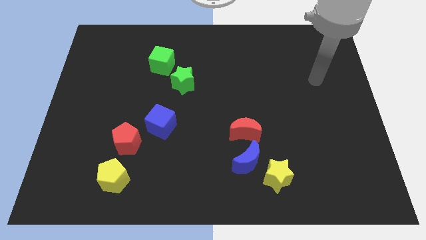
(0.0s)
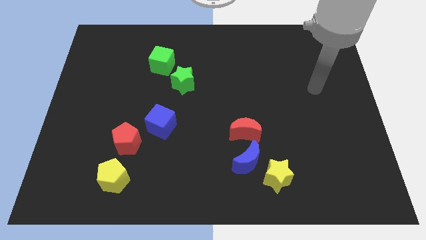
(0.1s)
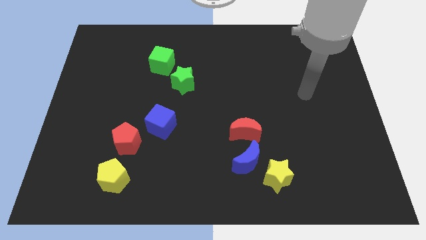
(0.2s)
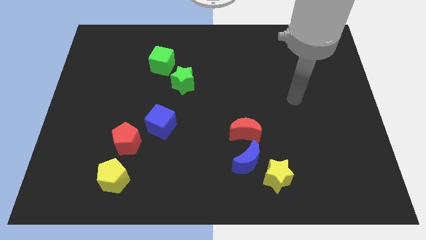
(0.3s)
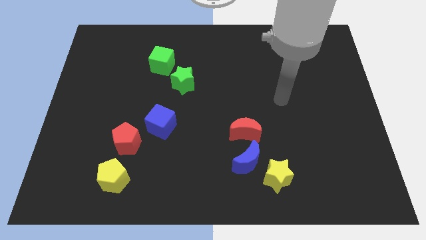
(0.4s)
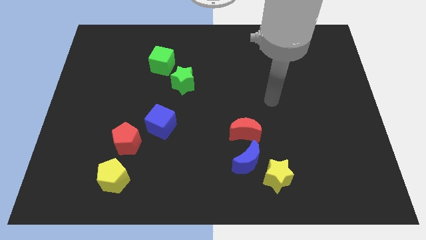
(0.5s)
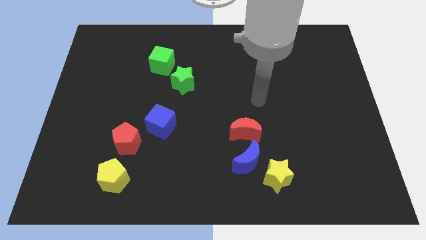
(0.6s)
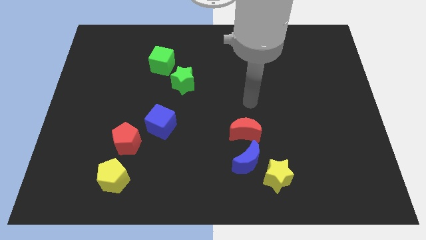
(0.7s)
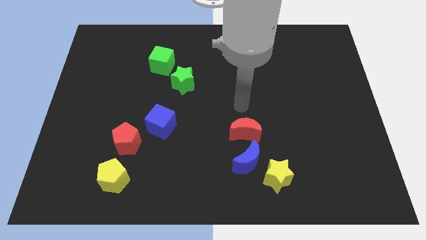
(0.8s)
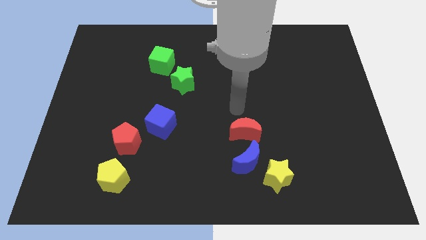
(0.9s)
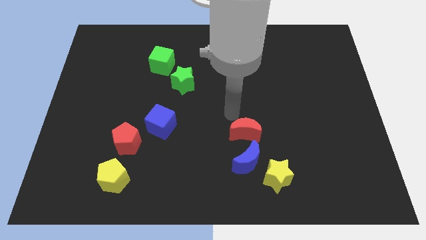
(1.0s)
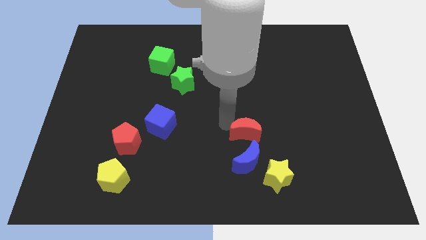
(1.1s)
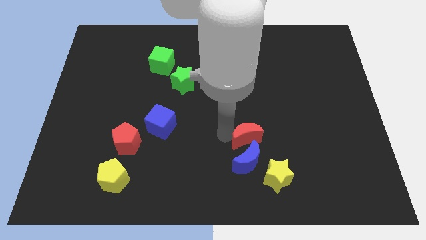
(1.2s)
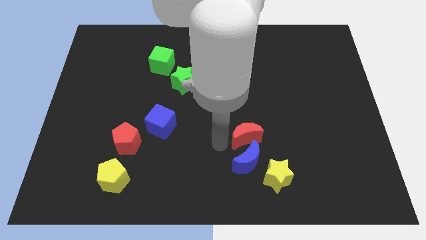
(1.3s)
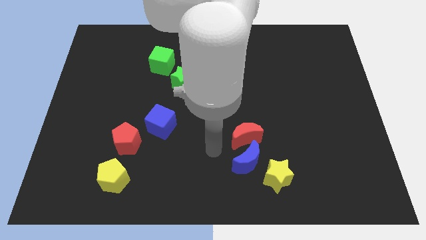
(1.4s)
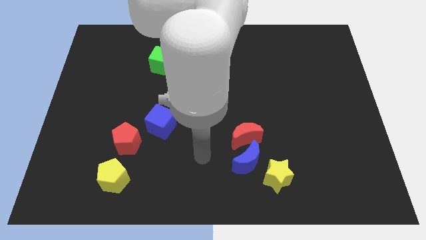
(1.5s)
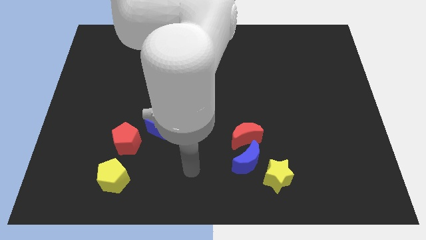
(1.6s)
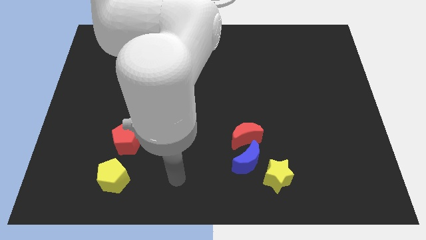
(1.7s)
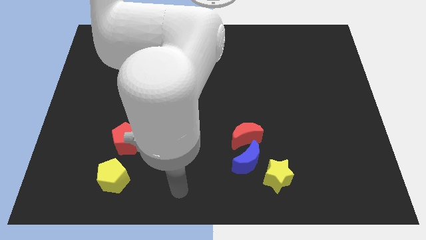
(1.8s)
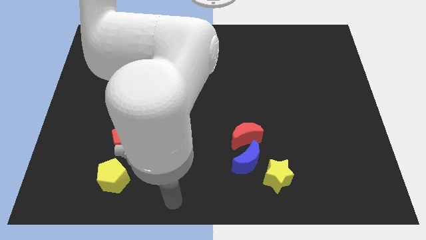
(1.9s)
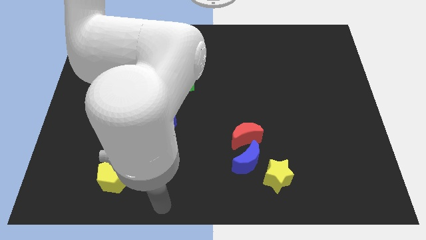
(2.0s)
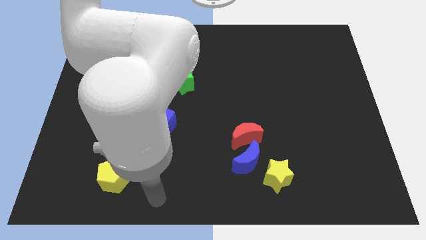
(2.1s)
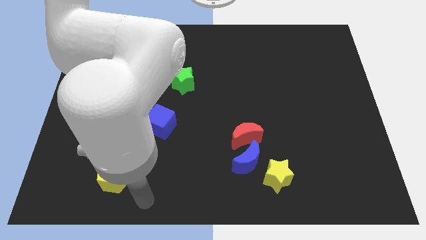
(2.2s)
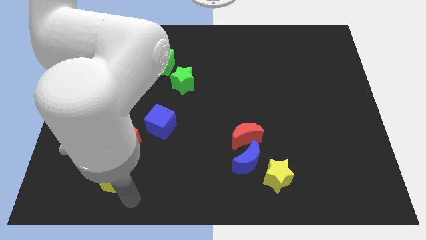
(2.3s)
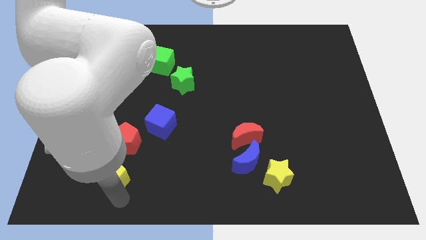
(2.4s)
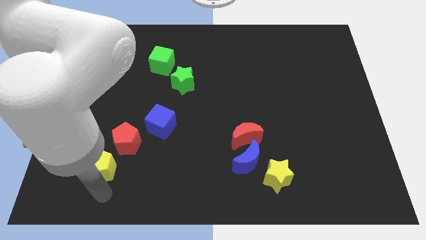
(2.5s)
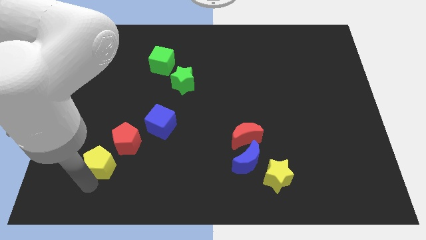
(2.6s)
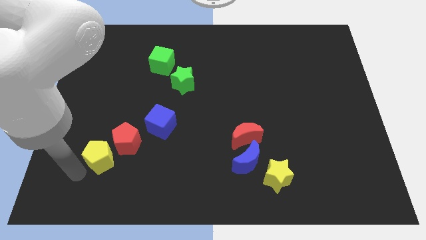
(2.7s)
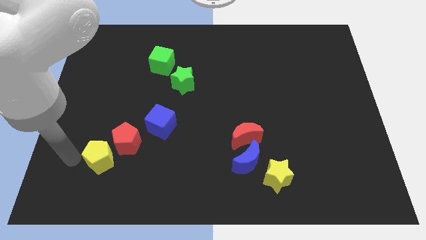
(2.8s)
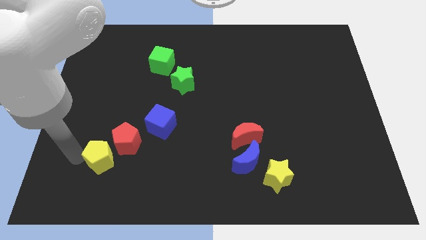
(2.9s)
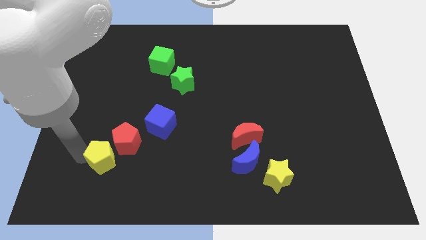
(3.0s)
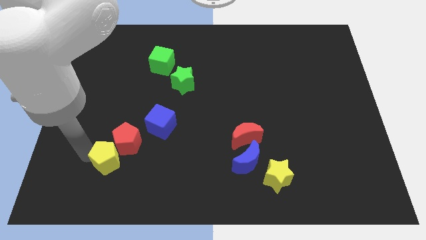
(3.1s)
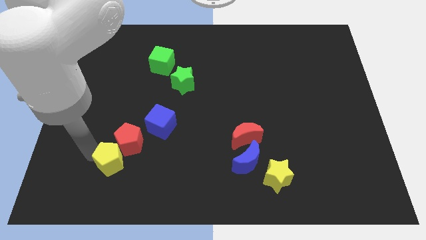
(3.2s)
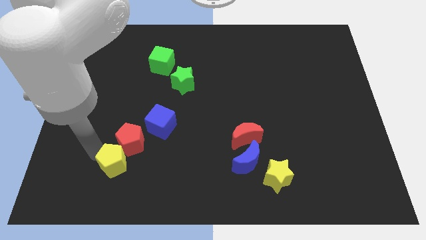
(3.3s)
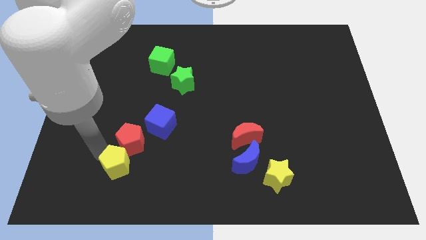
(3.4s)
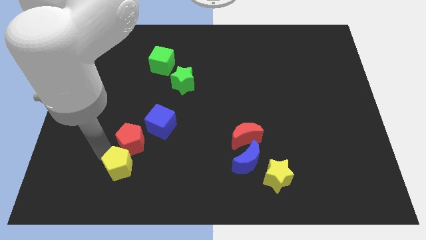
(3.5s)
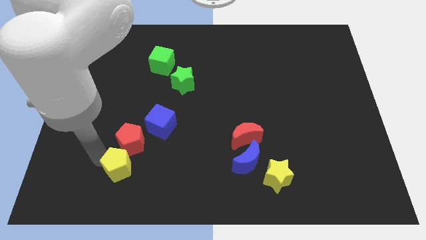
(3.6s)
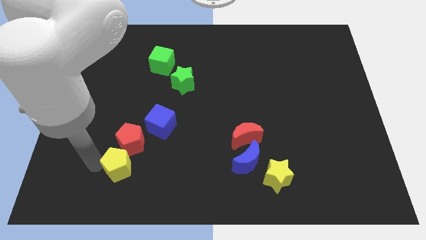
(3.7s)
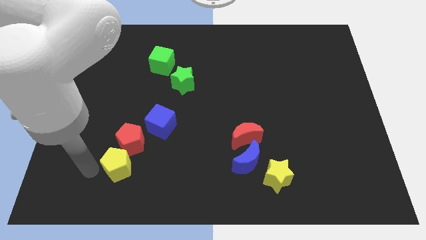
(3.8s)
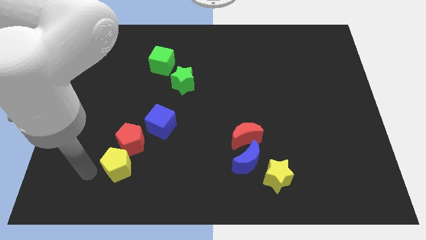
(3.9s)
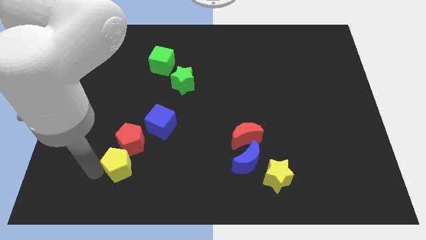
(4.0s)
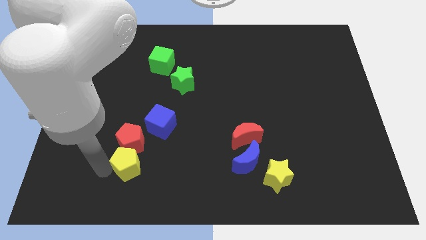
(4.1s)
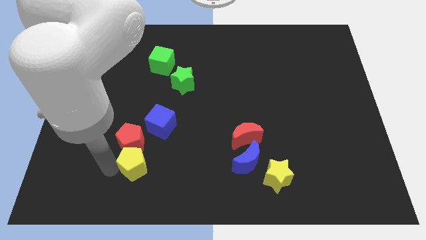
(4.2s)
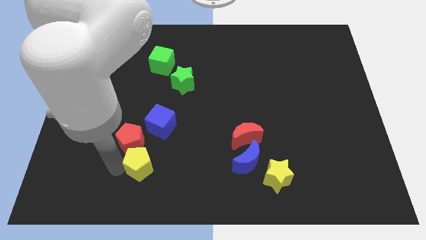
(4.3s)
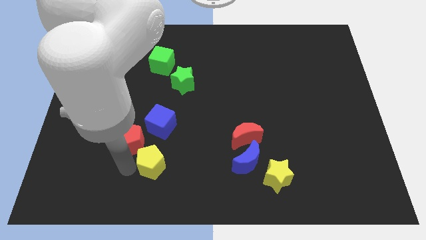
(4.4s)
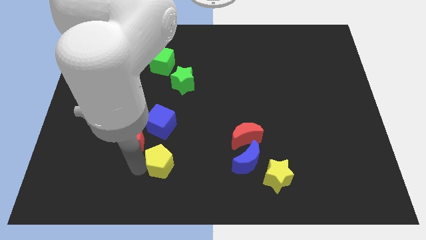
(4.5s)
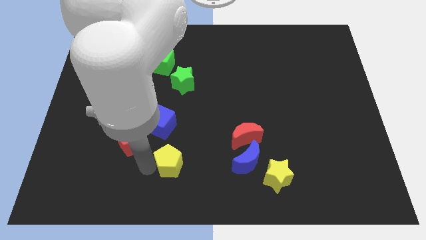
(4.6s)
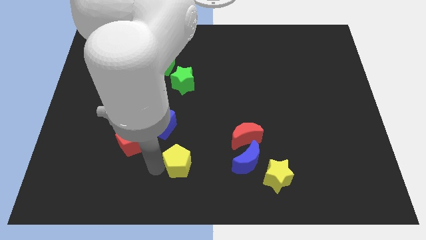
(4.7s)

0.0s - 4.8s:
push the yellow pentagon to the bottom right side of the blue cube

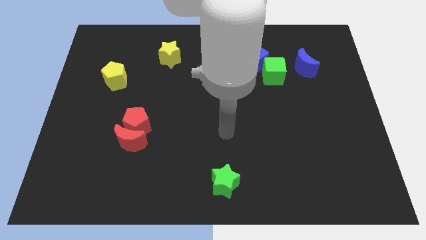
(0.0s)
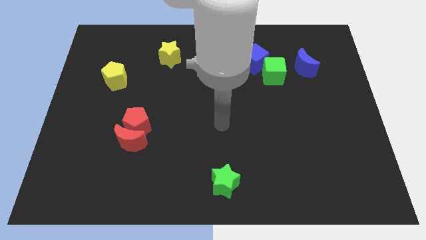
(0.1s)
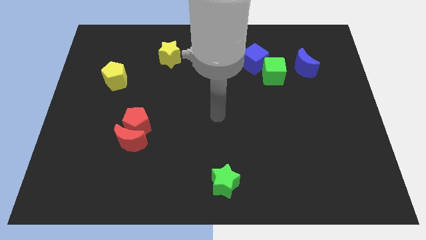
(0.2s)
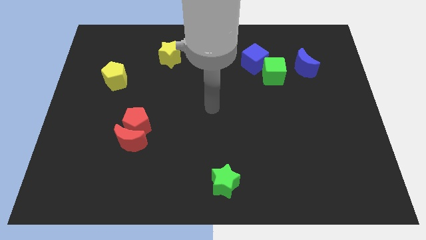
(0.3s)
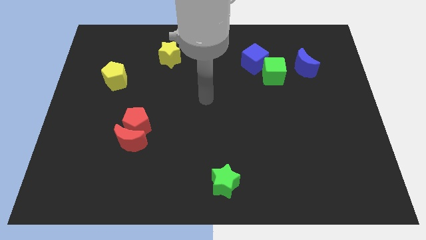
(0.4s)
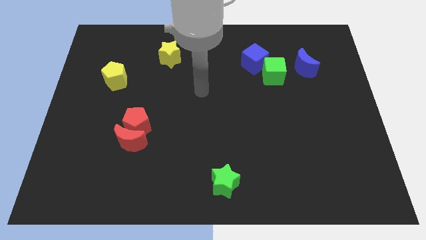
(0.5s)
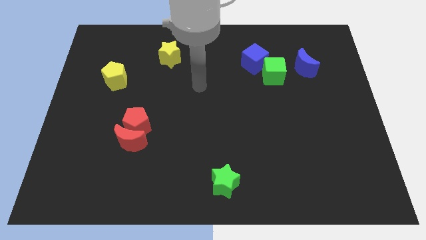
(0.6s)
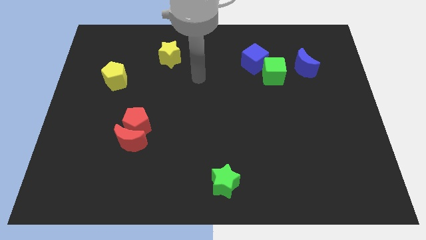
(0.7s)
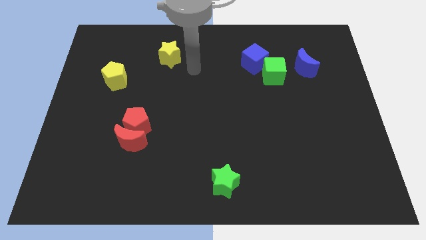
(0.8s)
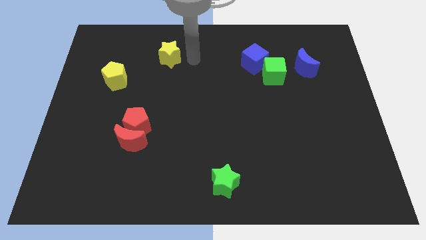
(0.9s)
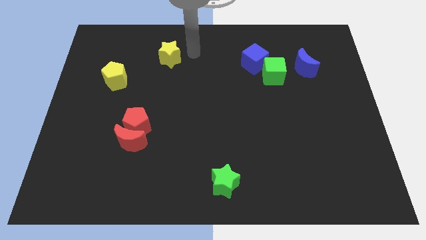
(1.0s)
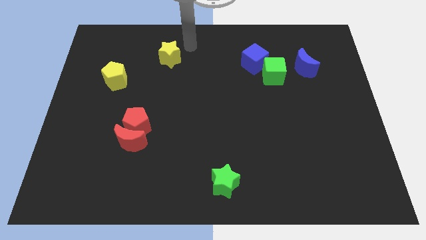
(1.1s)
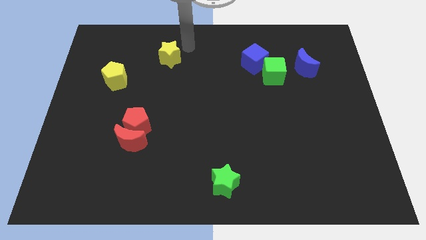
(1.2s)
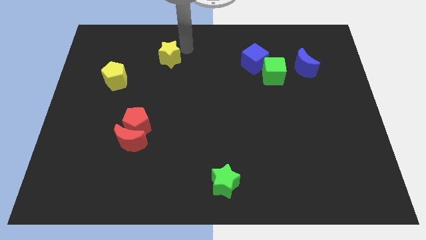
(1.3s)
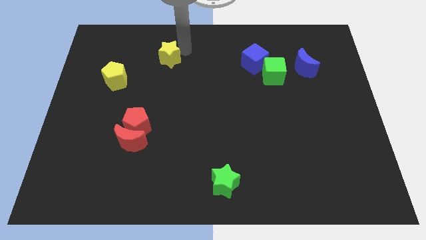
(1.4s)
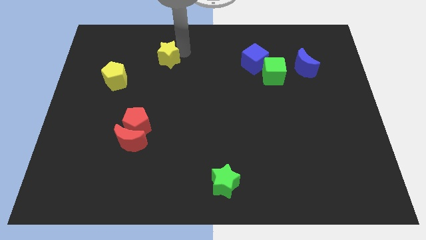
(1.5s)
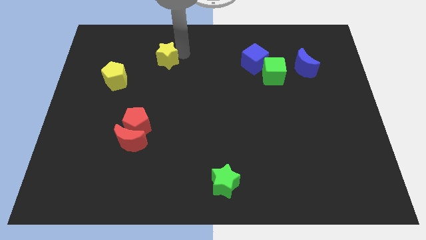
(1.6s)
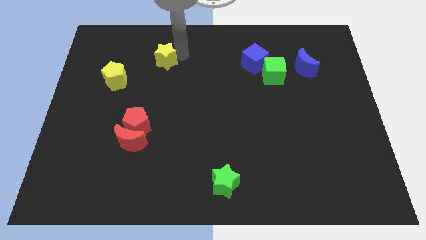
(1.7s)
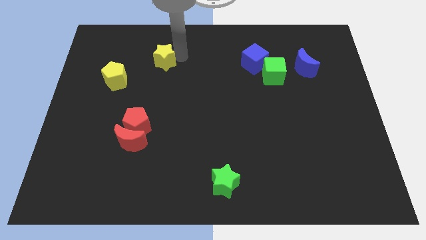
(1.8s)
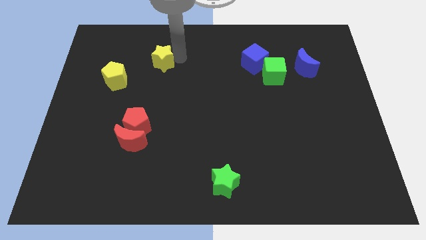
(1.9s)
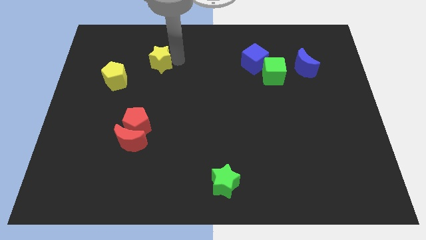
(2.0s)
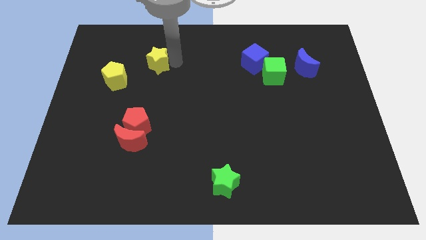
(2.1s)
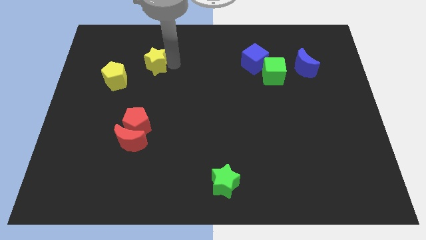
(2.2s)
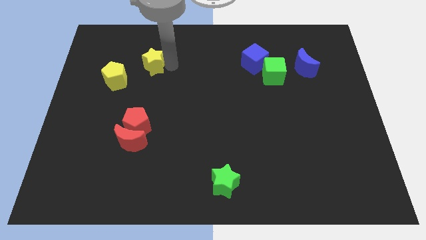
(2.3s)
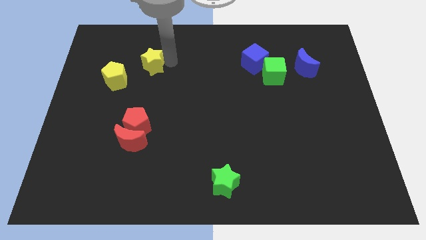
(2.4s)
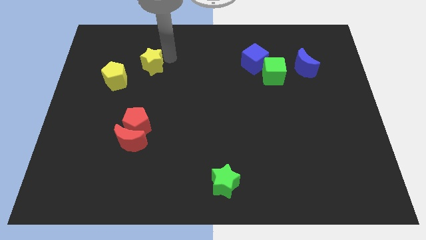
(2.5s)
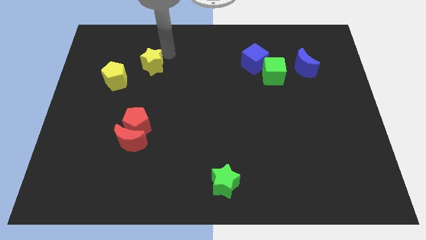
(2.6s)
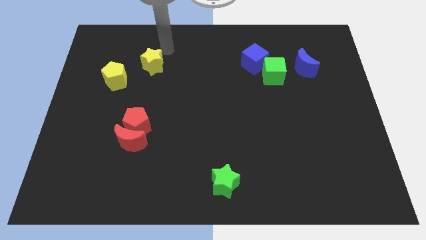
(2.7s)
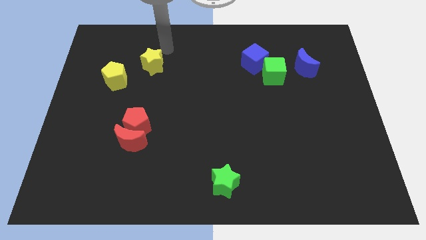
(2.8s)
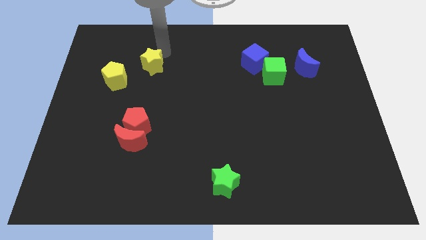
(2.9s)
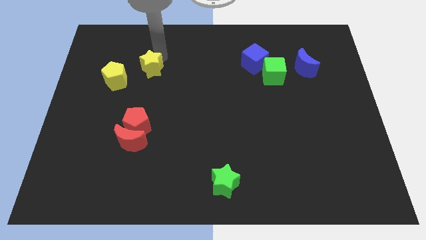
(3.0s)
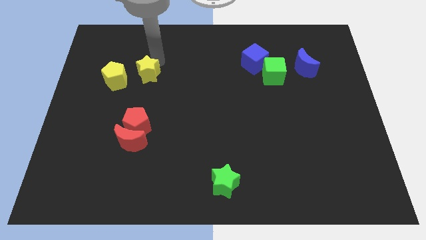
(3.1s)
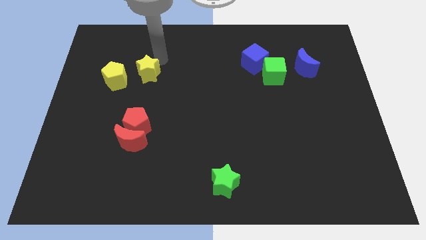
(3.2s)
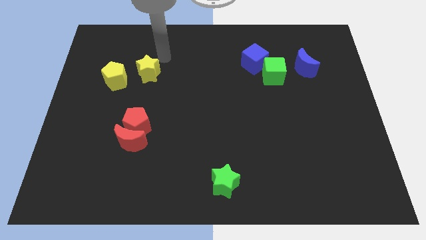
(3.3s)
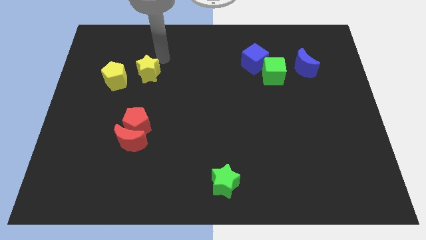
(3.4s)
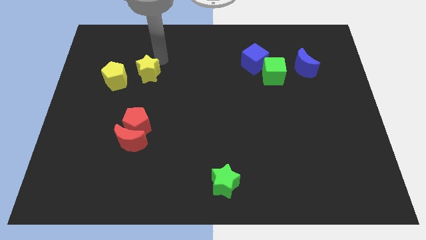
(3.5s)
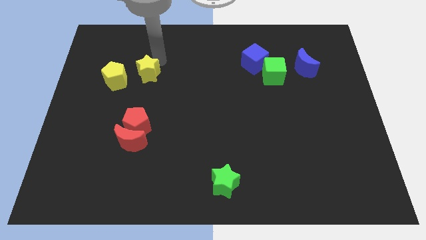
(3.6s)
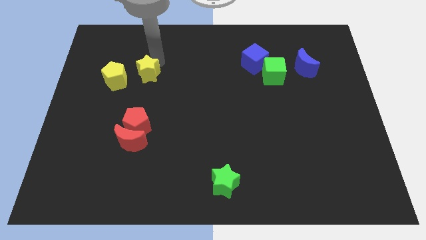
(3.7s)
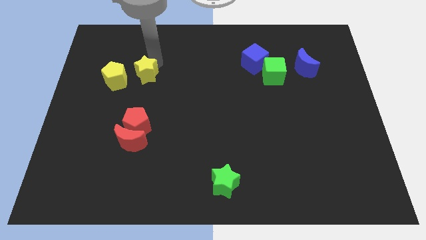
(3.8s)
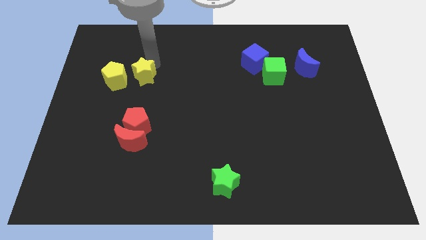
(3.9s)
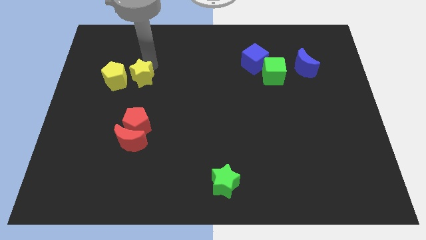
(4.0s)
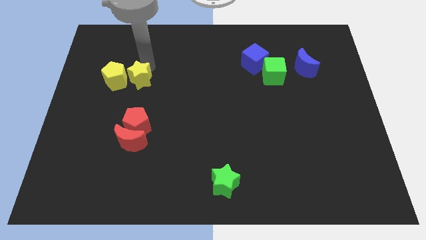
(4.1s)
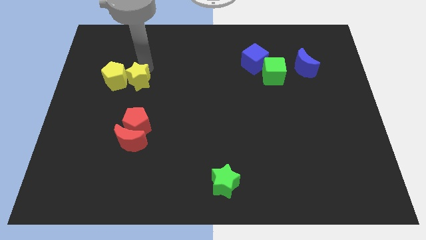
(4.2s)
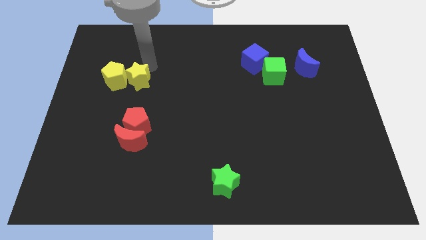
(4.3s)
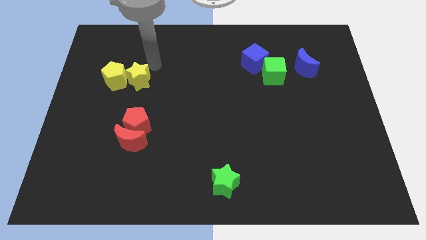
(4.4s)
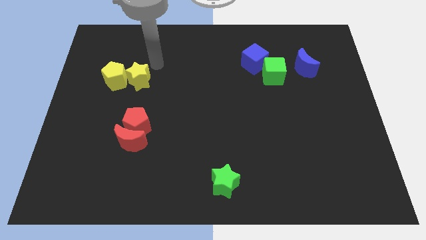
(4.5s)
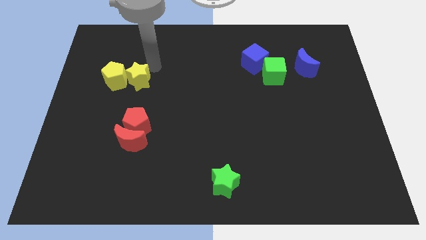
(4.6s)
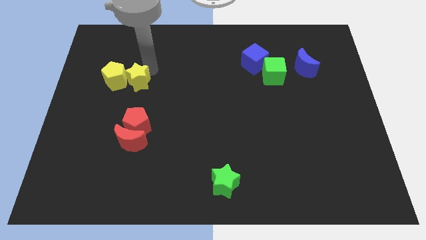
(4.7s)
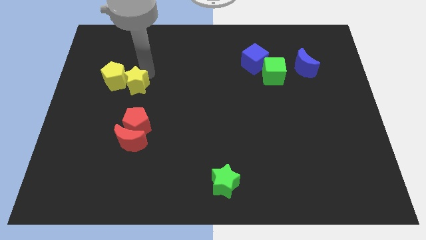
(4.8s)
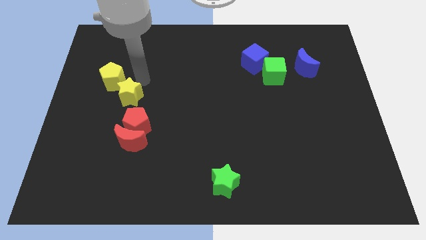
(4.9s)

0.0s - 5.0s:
move the yellow star to the bottom side of the yellow pentagon
